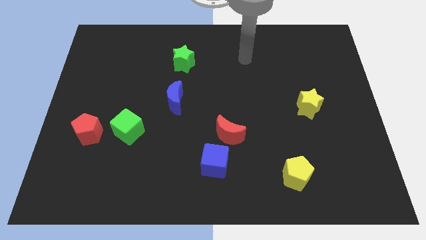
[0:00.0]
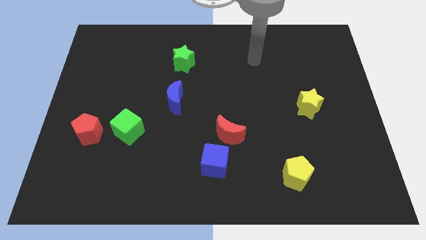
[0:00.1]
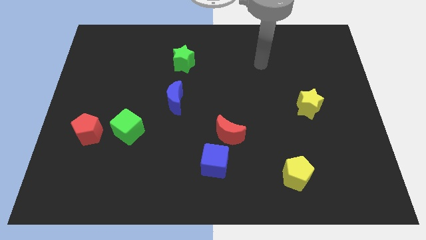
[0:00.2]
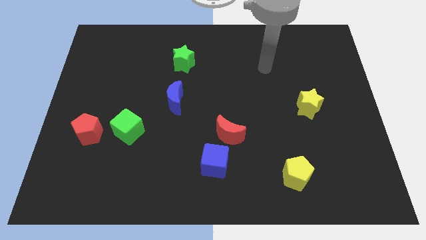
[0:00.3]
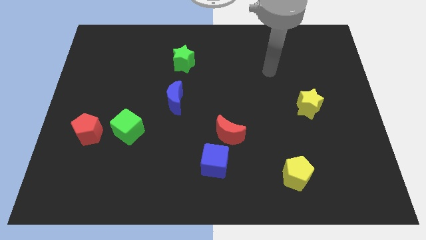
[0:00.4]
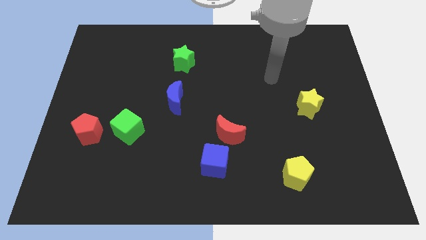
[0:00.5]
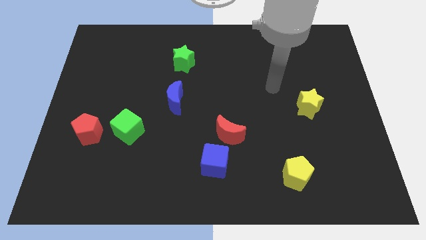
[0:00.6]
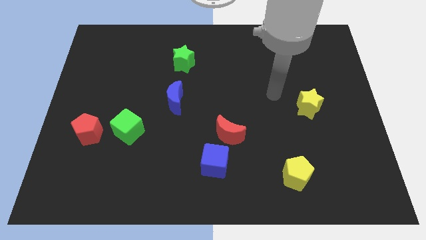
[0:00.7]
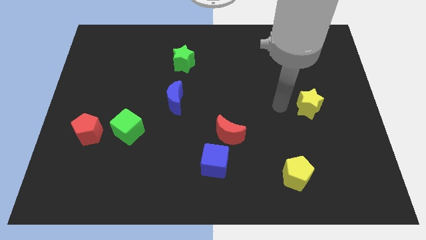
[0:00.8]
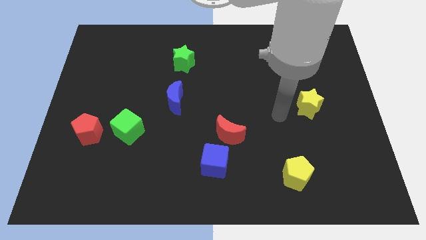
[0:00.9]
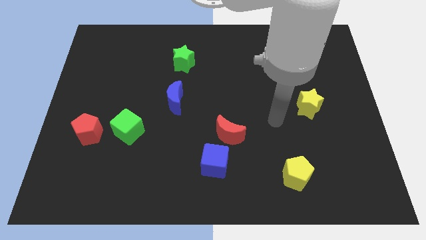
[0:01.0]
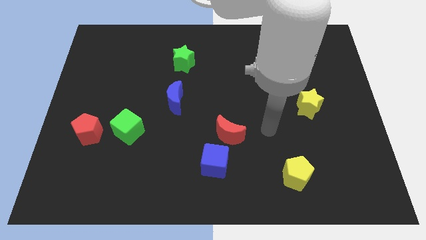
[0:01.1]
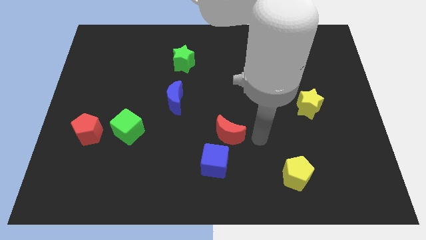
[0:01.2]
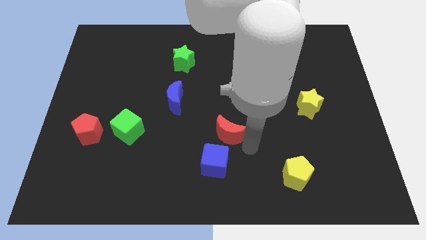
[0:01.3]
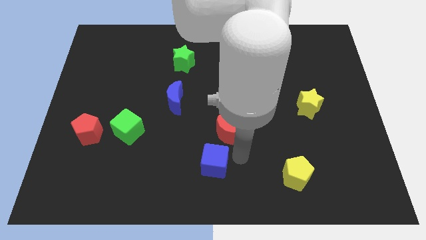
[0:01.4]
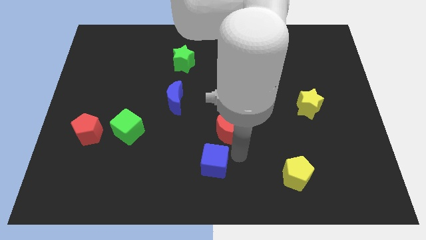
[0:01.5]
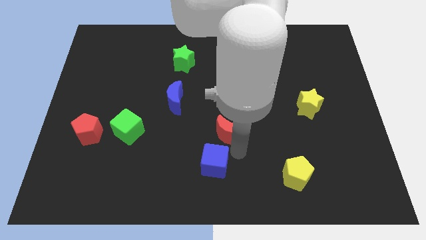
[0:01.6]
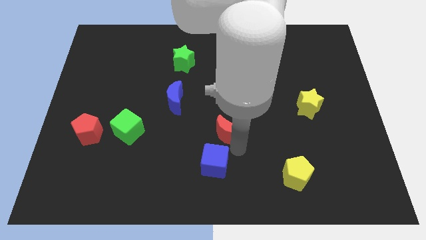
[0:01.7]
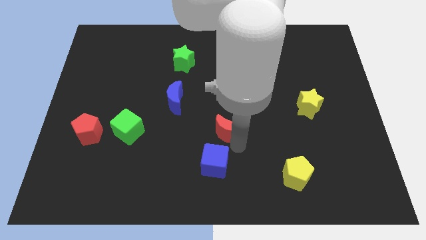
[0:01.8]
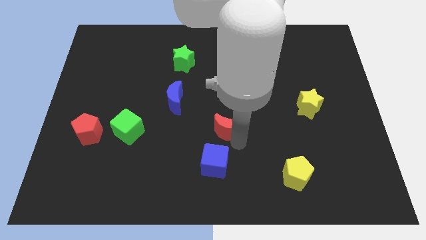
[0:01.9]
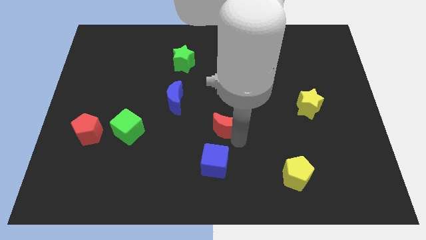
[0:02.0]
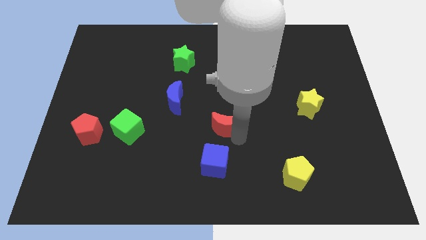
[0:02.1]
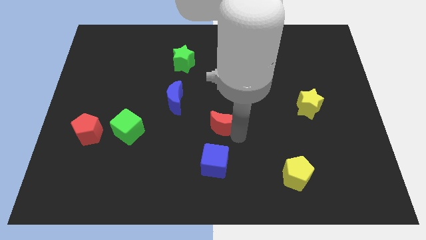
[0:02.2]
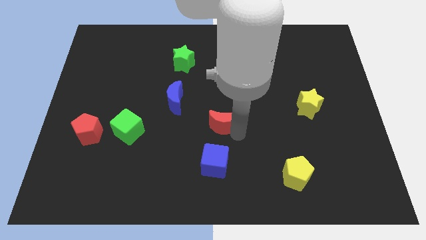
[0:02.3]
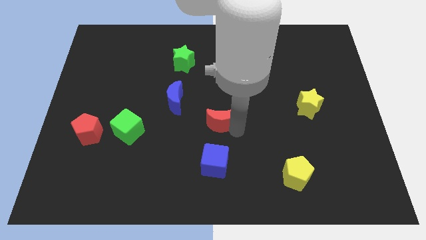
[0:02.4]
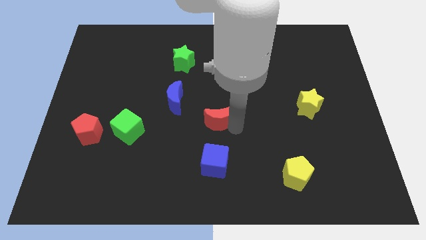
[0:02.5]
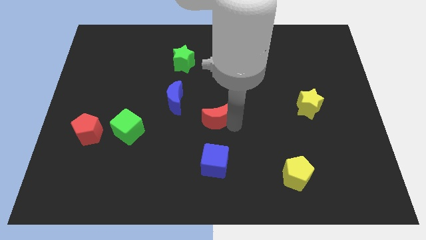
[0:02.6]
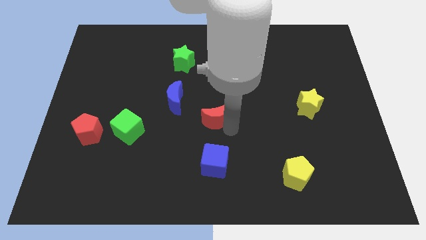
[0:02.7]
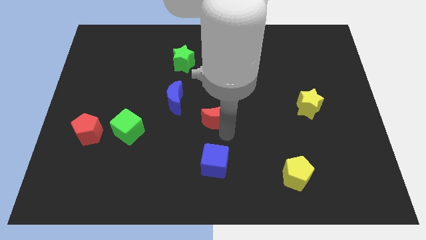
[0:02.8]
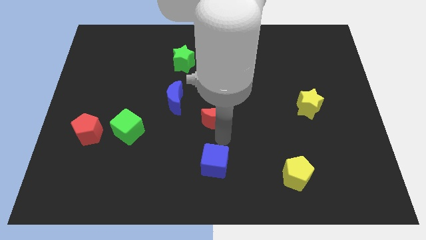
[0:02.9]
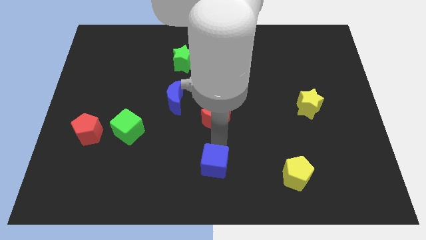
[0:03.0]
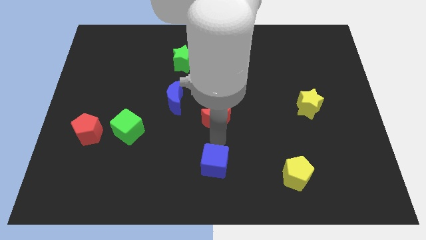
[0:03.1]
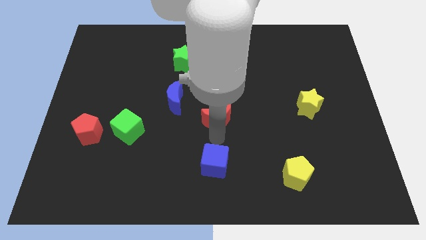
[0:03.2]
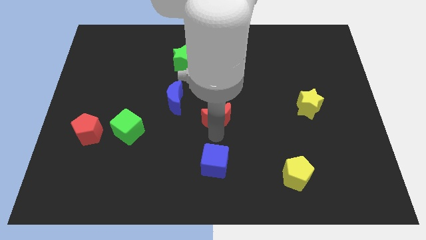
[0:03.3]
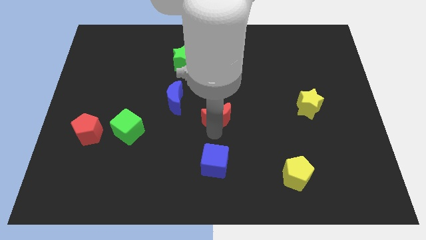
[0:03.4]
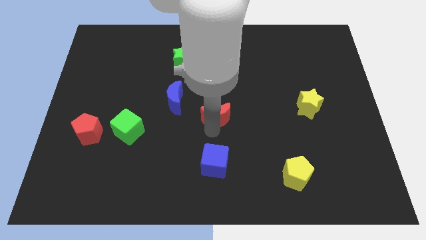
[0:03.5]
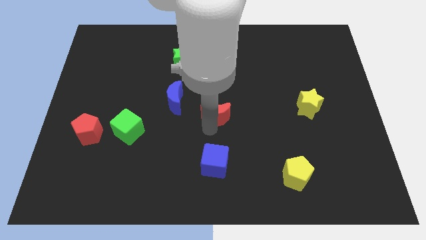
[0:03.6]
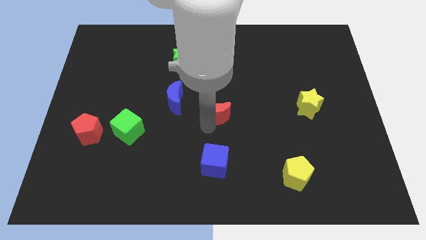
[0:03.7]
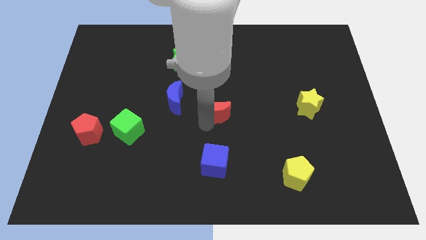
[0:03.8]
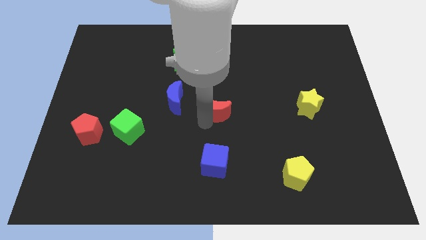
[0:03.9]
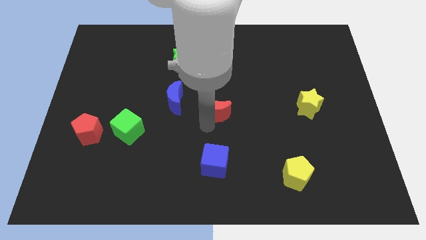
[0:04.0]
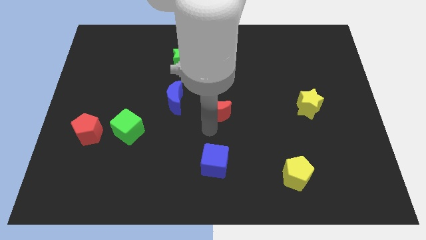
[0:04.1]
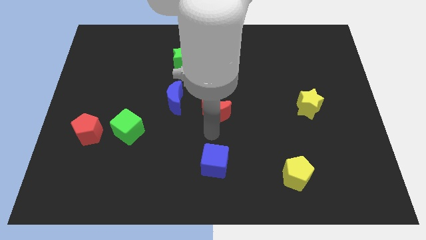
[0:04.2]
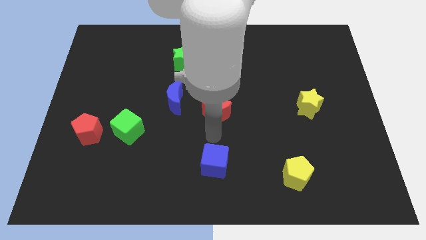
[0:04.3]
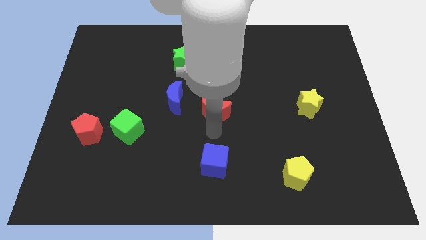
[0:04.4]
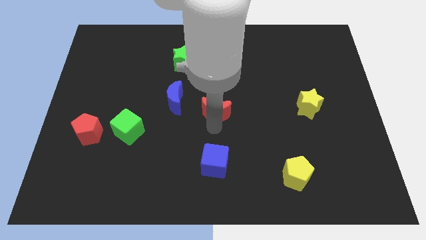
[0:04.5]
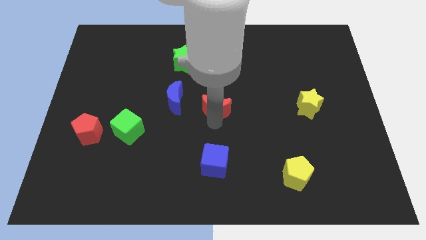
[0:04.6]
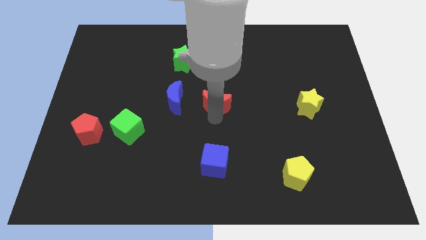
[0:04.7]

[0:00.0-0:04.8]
move the red moon up and left somewhat

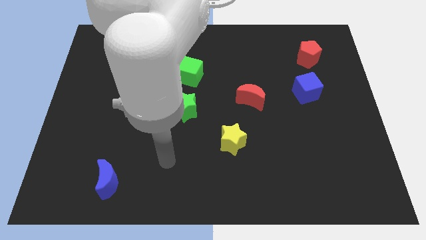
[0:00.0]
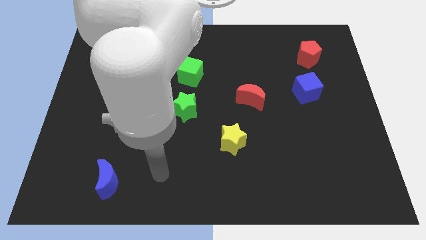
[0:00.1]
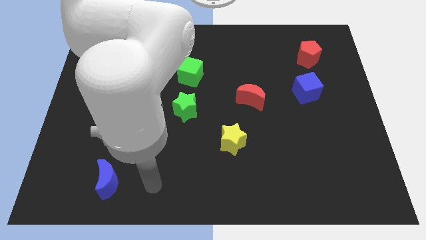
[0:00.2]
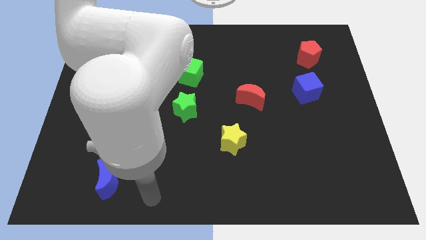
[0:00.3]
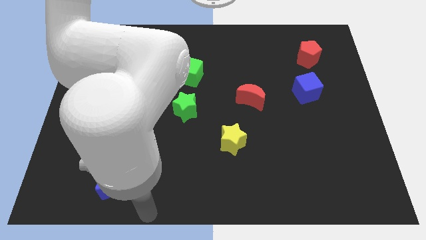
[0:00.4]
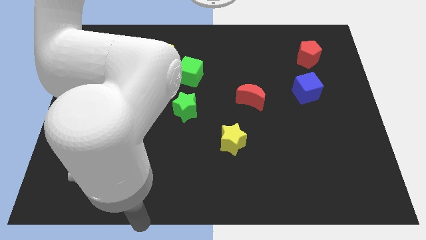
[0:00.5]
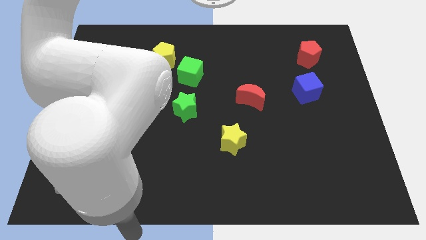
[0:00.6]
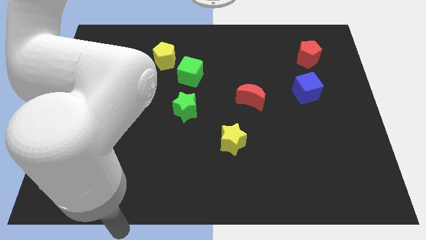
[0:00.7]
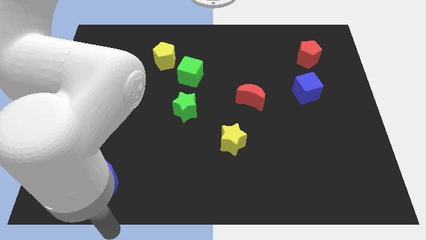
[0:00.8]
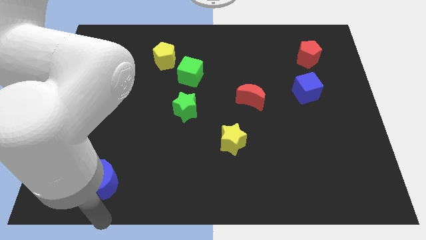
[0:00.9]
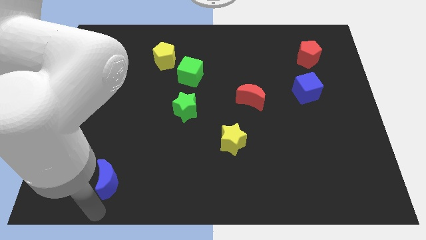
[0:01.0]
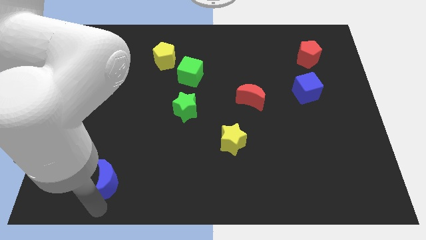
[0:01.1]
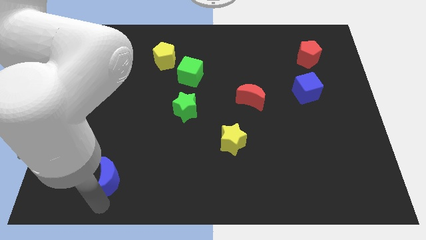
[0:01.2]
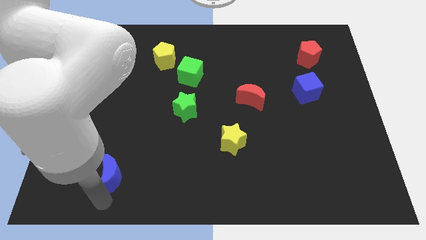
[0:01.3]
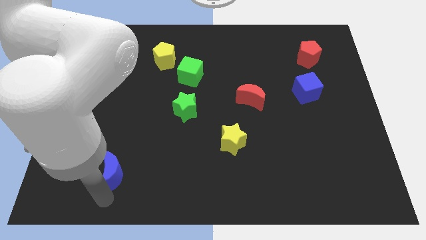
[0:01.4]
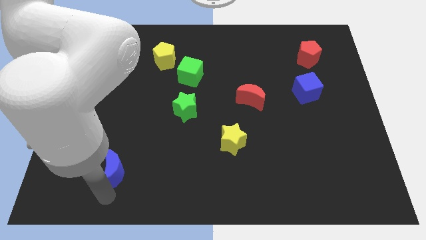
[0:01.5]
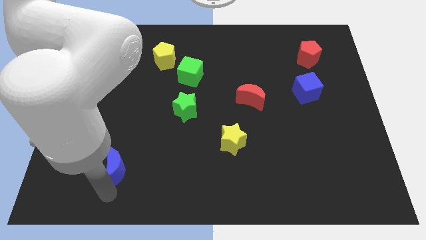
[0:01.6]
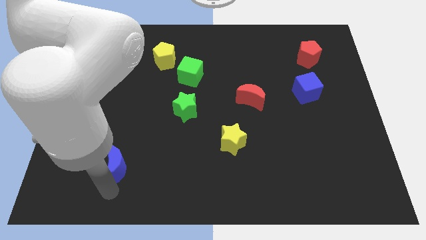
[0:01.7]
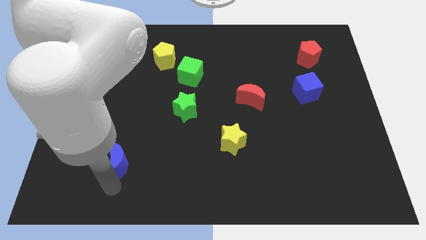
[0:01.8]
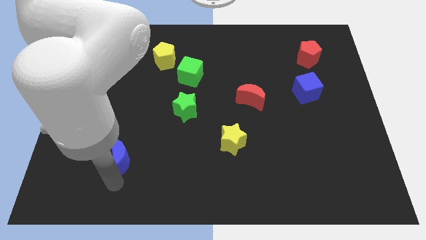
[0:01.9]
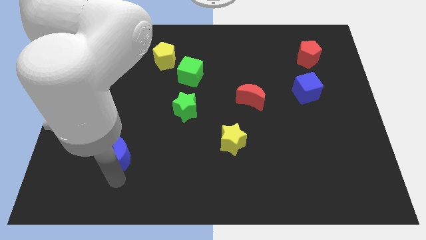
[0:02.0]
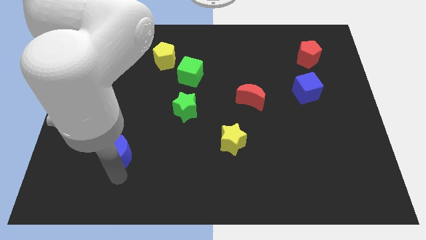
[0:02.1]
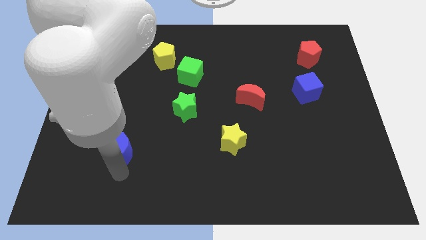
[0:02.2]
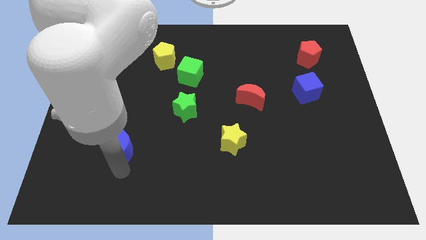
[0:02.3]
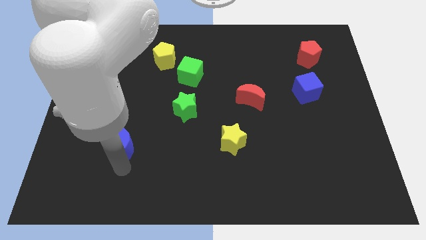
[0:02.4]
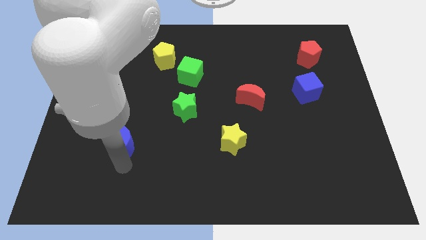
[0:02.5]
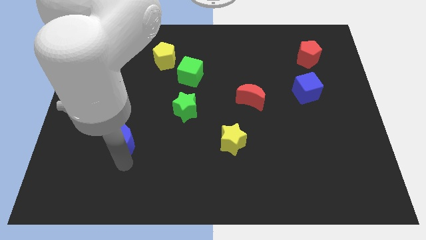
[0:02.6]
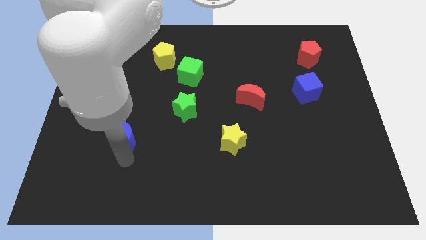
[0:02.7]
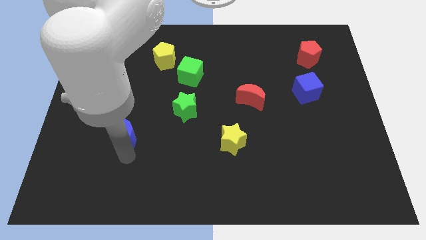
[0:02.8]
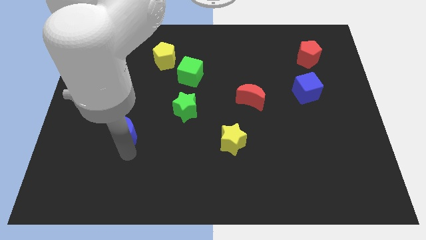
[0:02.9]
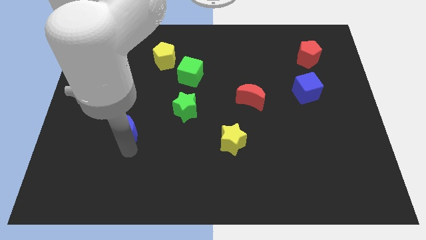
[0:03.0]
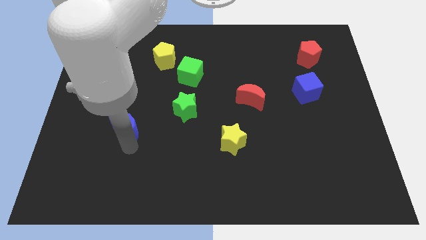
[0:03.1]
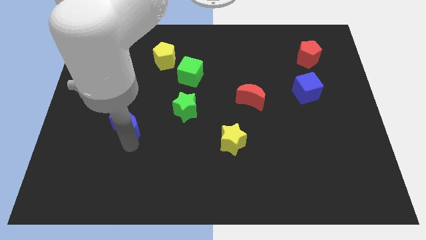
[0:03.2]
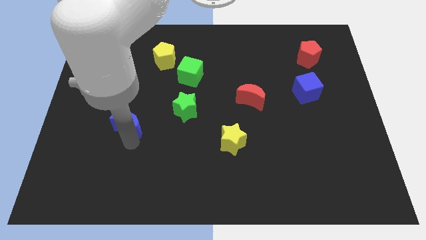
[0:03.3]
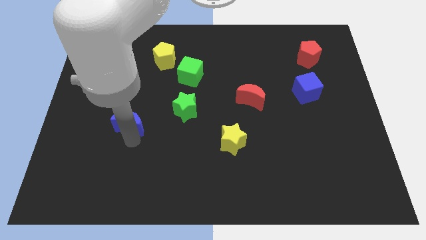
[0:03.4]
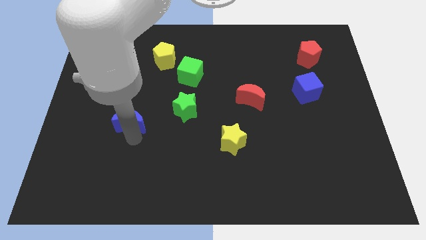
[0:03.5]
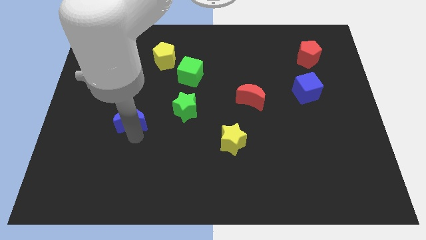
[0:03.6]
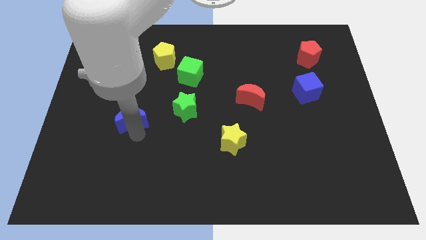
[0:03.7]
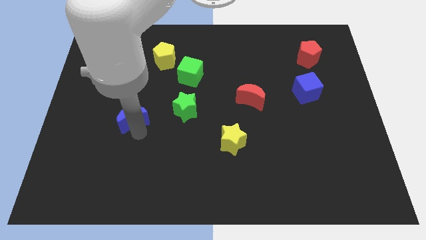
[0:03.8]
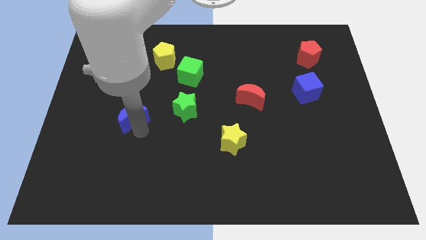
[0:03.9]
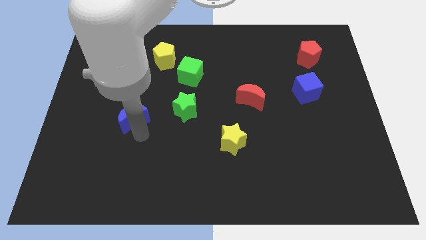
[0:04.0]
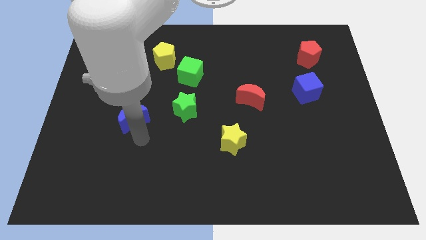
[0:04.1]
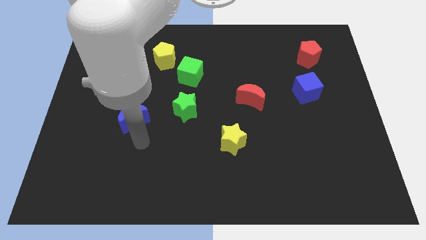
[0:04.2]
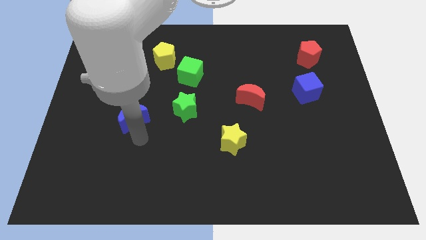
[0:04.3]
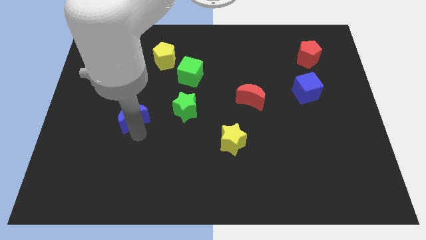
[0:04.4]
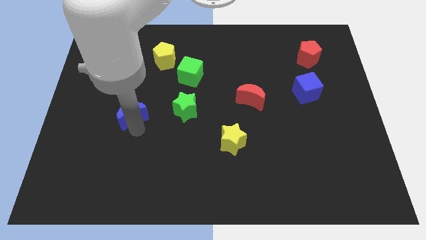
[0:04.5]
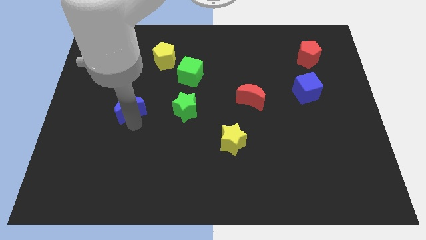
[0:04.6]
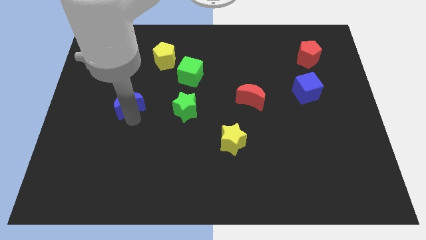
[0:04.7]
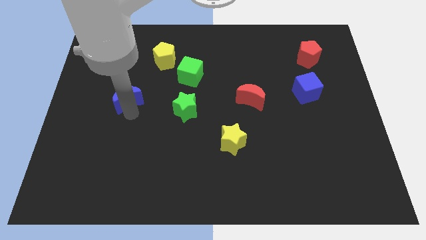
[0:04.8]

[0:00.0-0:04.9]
move the blue moon upwards
